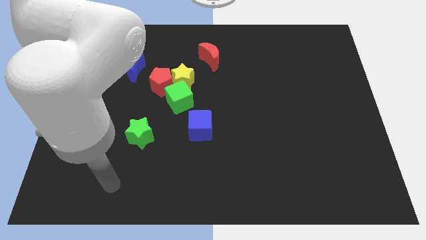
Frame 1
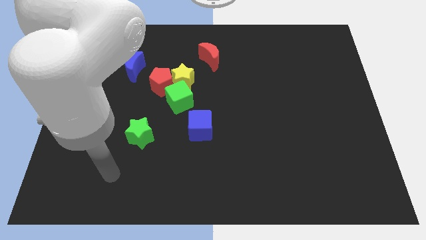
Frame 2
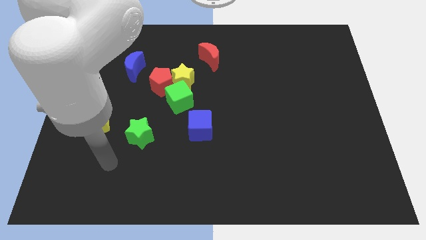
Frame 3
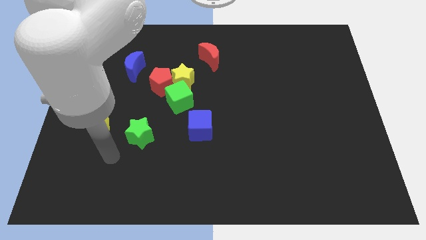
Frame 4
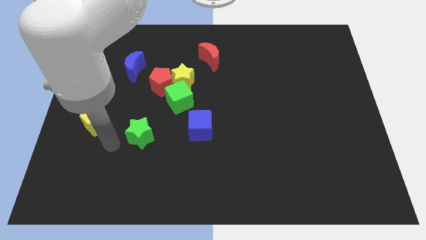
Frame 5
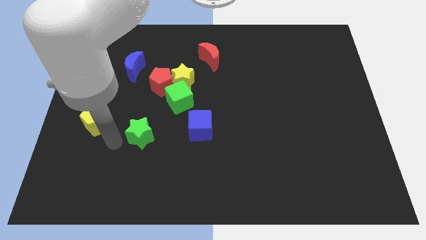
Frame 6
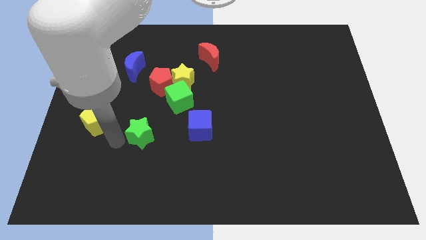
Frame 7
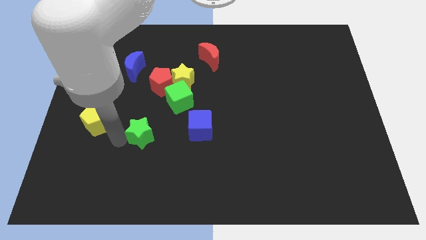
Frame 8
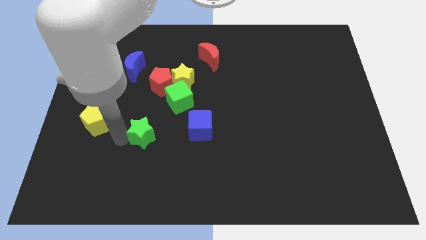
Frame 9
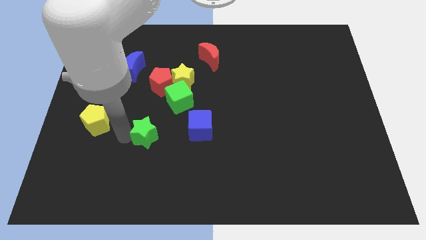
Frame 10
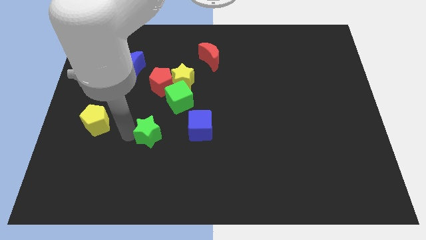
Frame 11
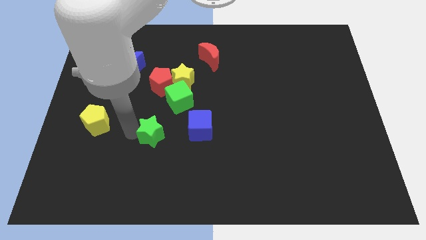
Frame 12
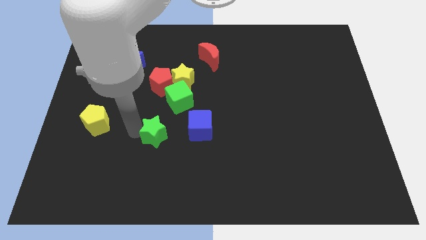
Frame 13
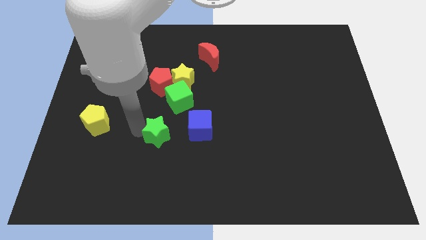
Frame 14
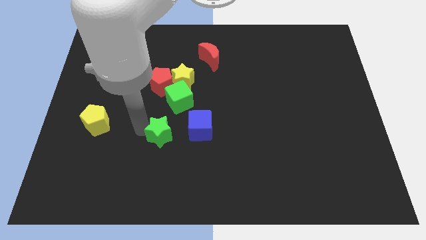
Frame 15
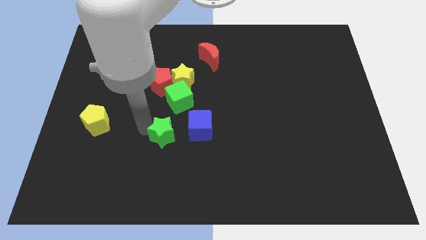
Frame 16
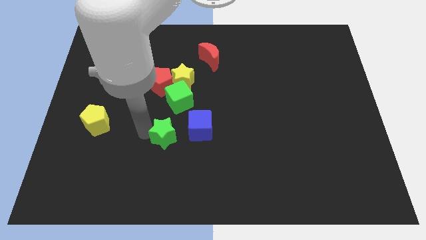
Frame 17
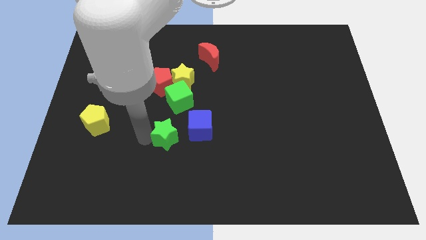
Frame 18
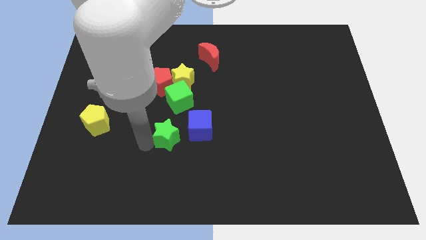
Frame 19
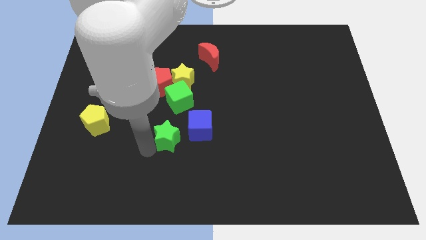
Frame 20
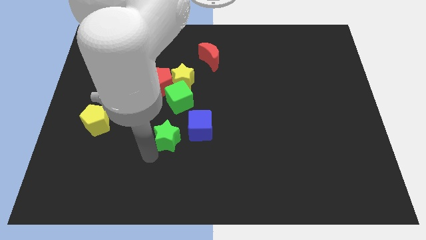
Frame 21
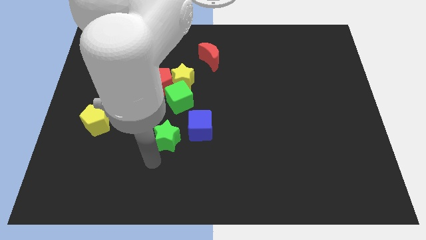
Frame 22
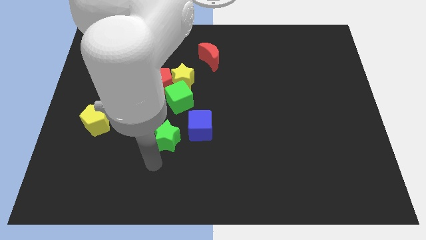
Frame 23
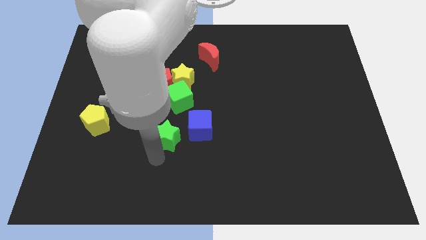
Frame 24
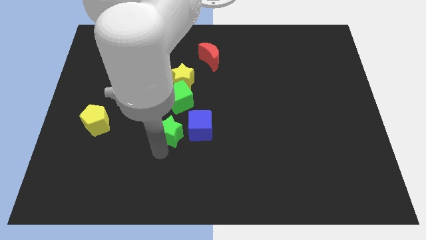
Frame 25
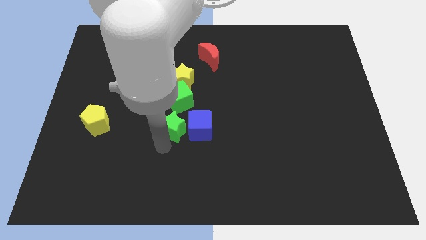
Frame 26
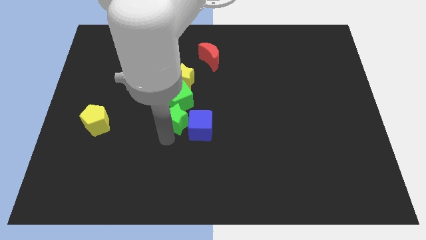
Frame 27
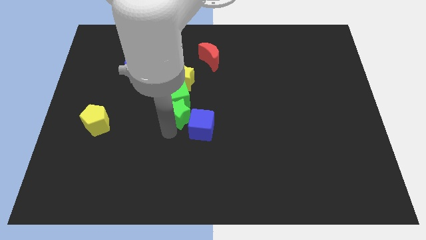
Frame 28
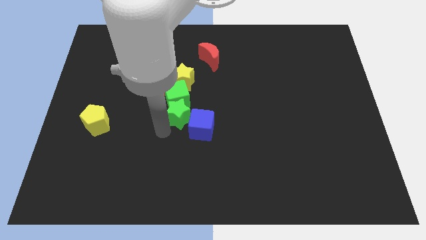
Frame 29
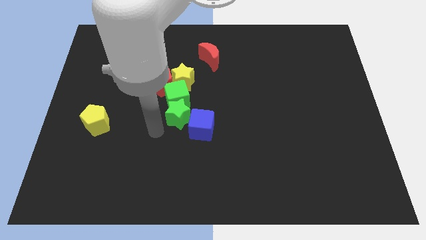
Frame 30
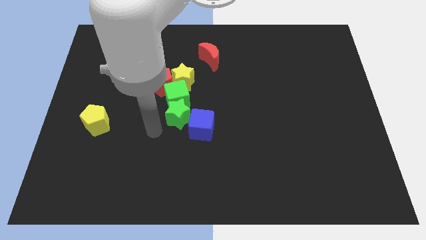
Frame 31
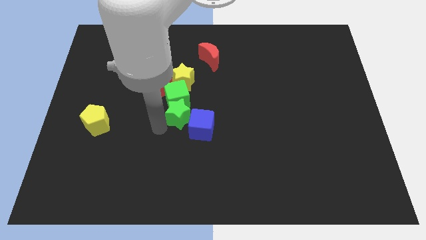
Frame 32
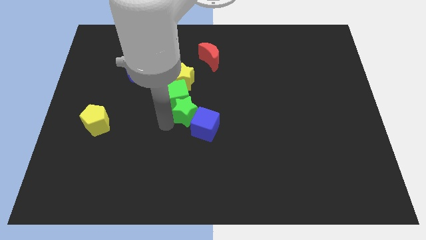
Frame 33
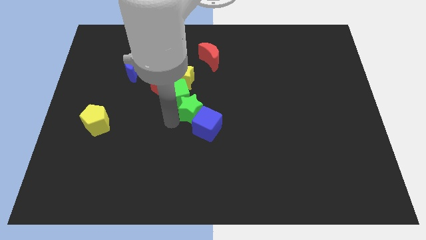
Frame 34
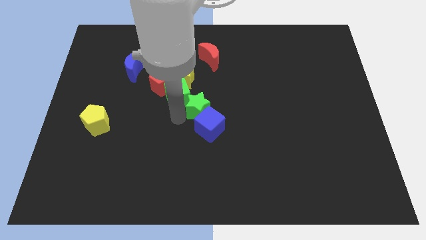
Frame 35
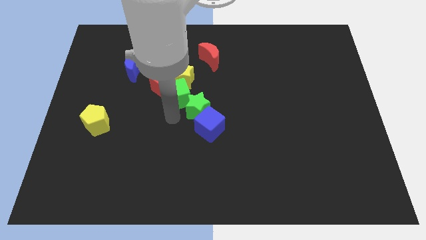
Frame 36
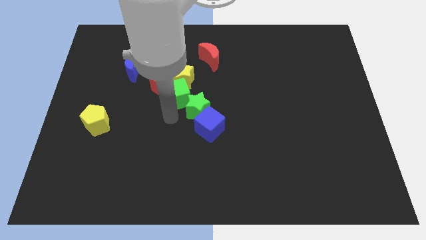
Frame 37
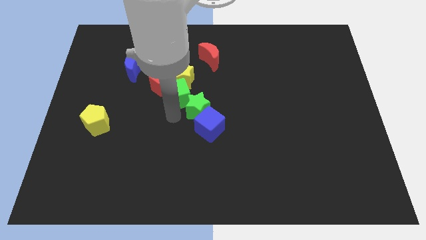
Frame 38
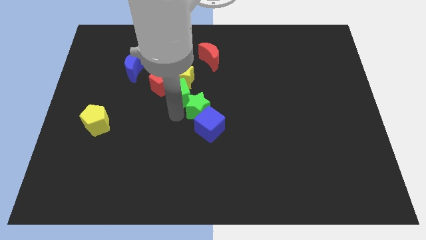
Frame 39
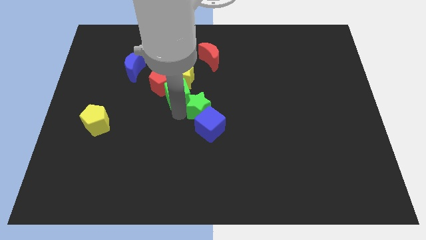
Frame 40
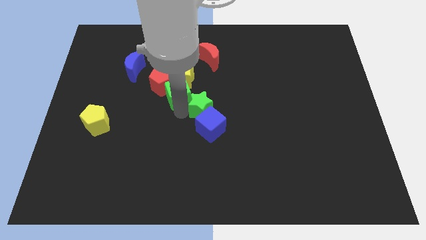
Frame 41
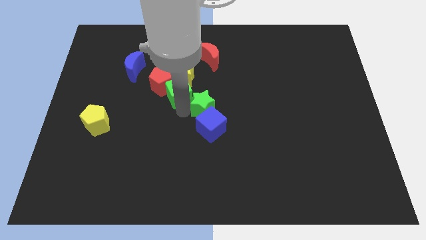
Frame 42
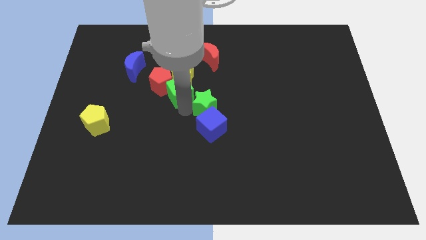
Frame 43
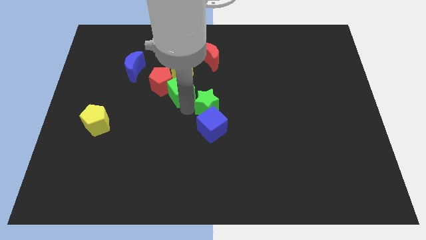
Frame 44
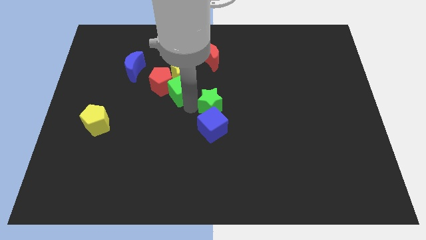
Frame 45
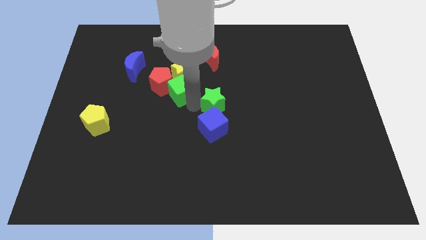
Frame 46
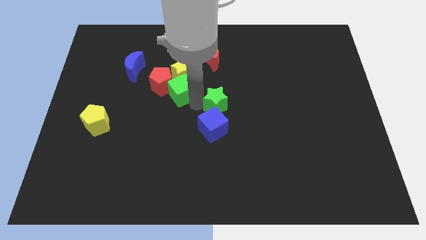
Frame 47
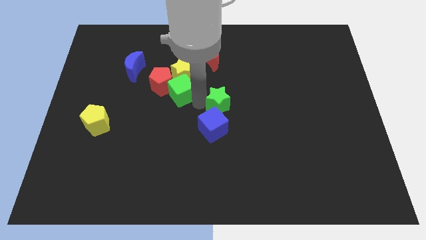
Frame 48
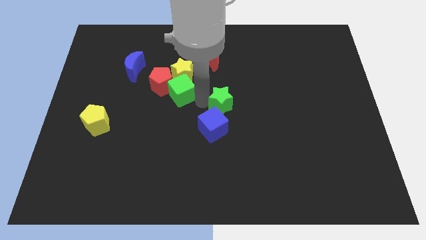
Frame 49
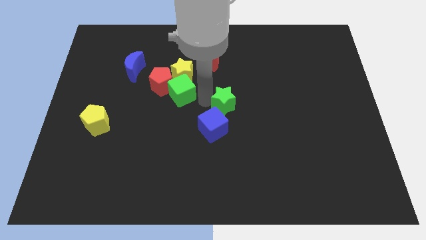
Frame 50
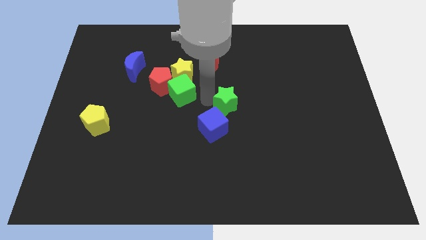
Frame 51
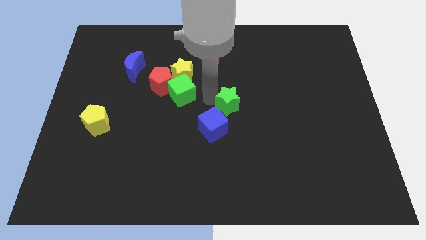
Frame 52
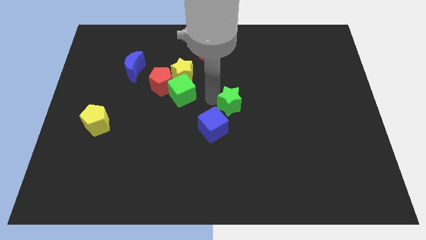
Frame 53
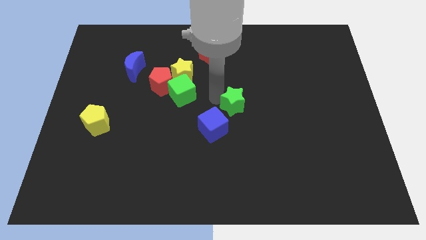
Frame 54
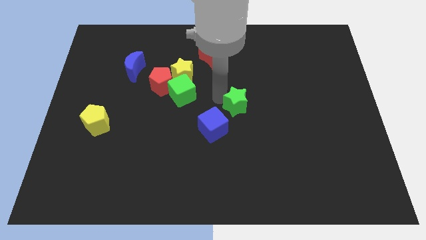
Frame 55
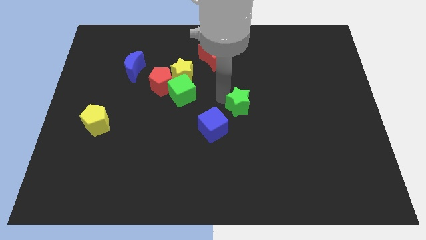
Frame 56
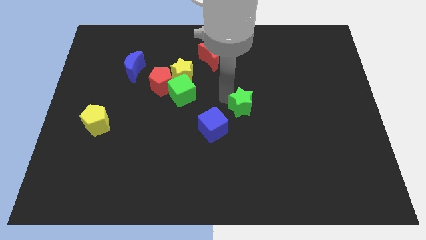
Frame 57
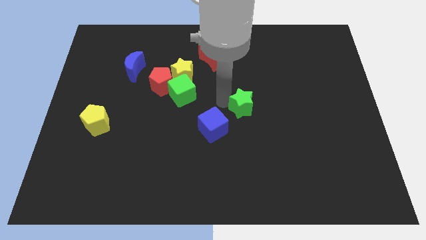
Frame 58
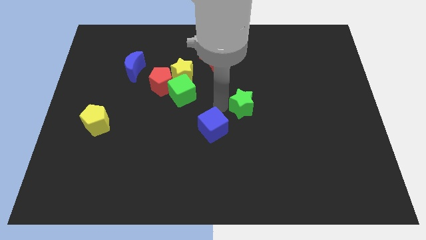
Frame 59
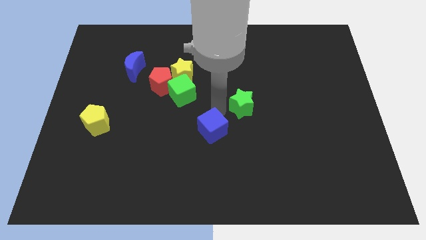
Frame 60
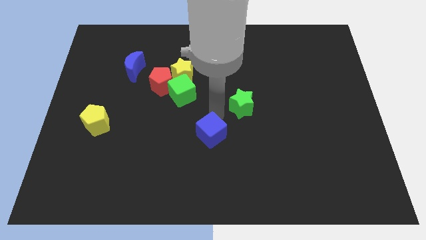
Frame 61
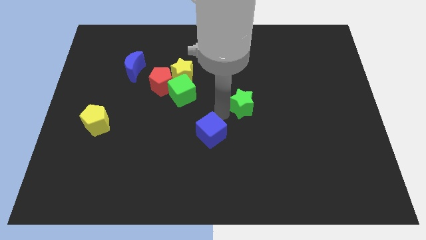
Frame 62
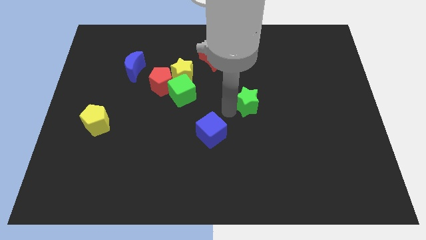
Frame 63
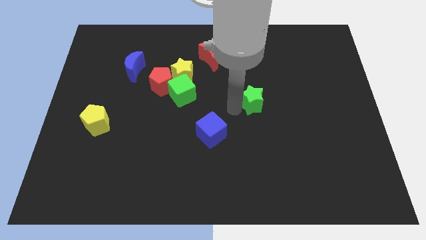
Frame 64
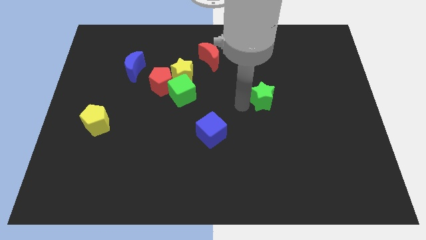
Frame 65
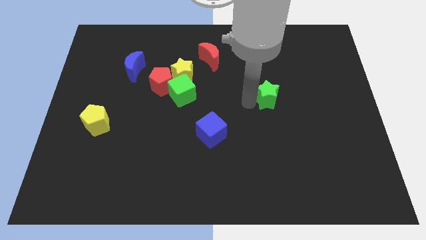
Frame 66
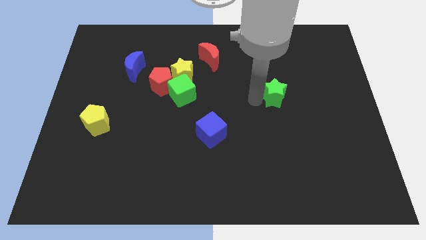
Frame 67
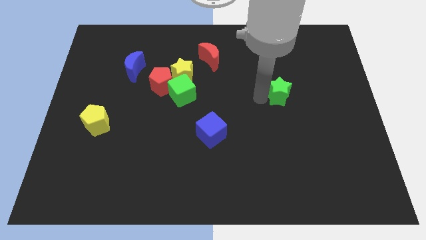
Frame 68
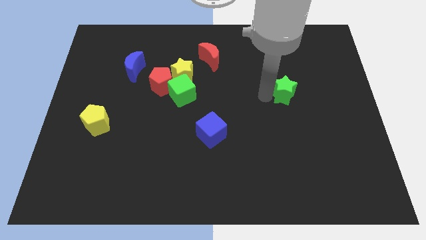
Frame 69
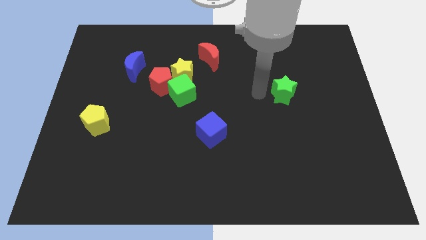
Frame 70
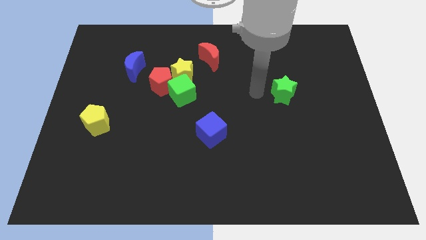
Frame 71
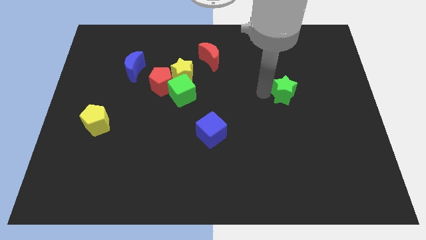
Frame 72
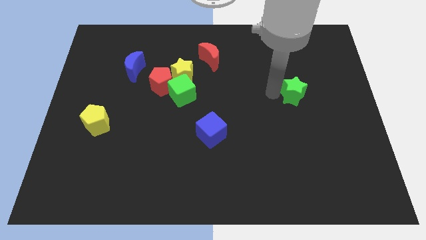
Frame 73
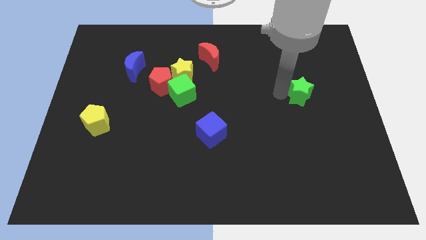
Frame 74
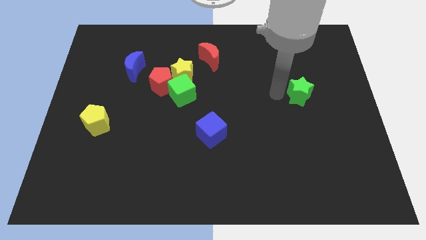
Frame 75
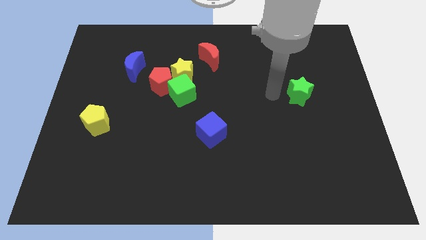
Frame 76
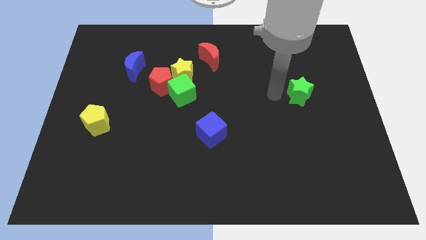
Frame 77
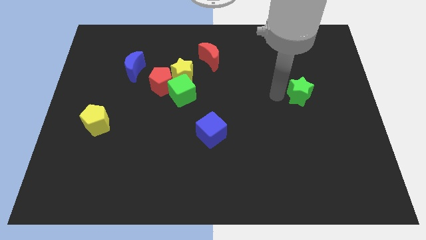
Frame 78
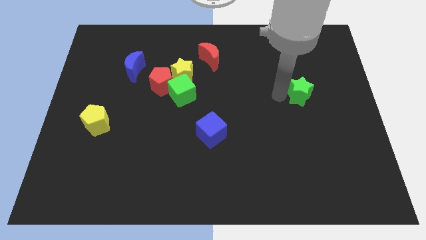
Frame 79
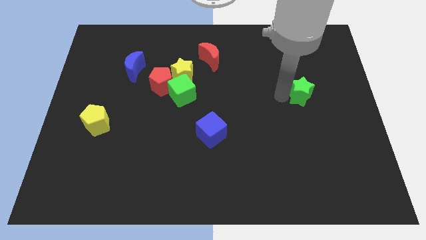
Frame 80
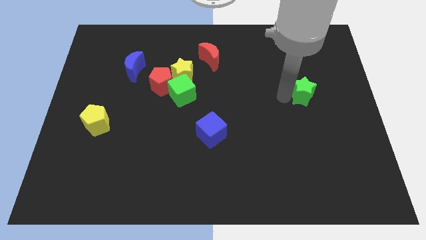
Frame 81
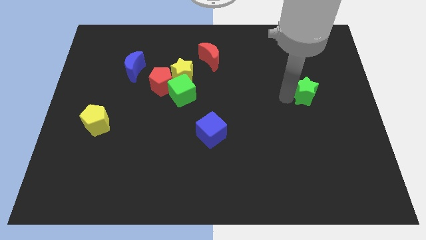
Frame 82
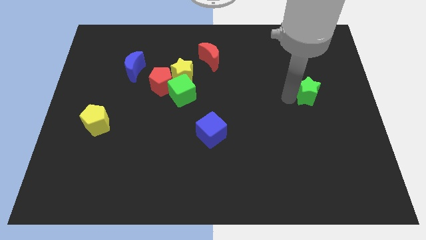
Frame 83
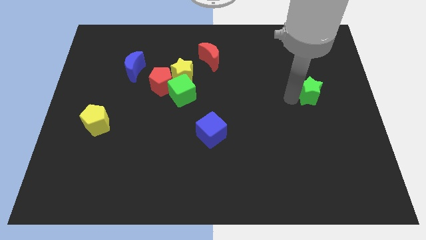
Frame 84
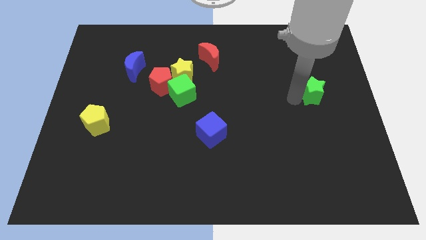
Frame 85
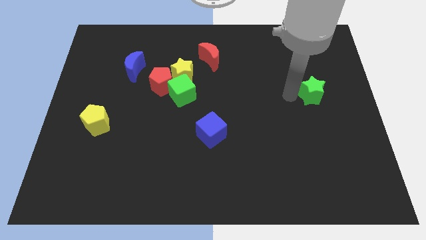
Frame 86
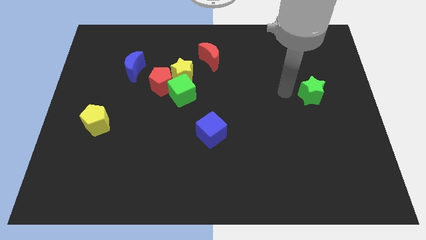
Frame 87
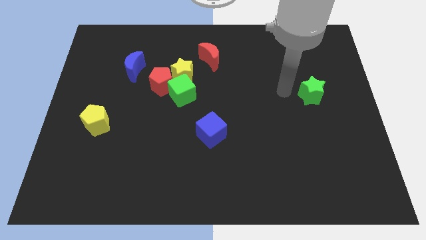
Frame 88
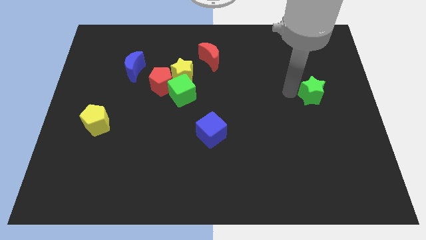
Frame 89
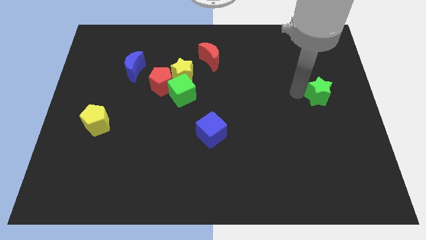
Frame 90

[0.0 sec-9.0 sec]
move the green star to the center right
